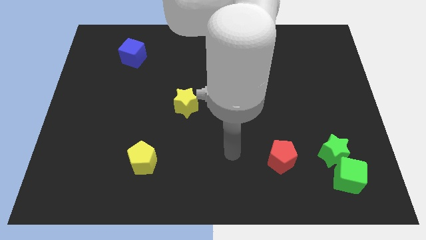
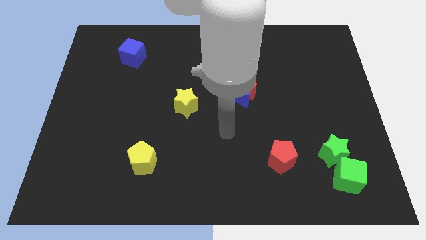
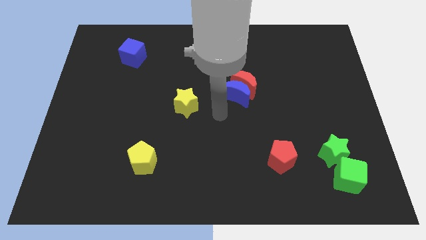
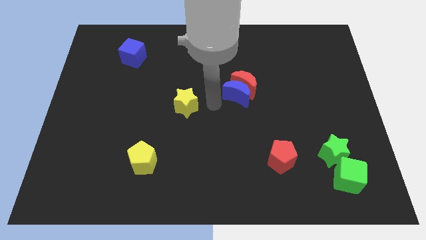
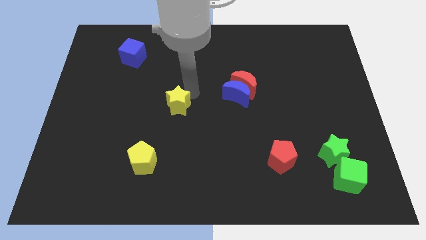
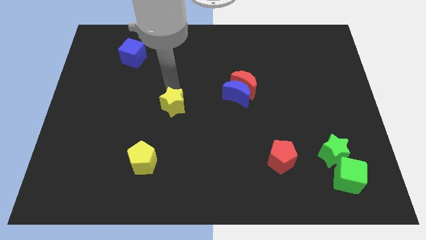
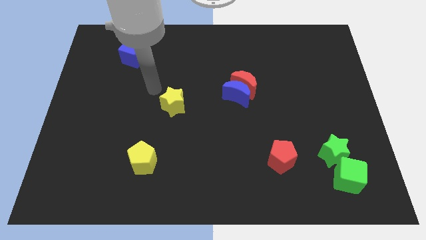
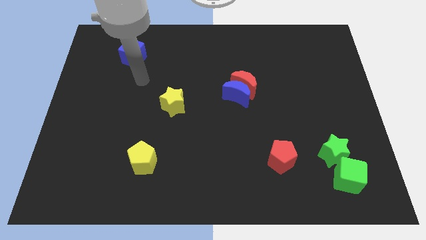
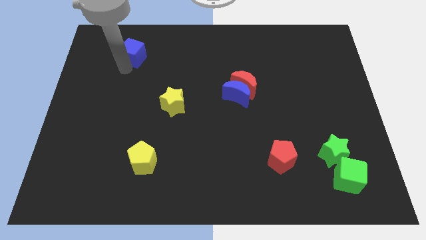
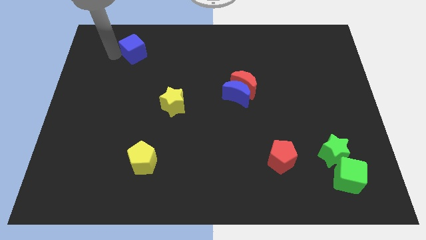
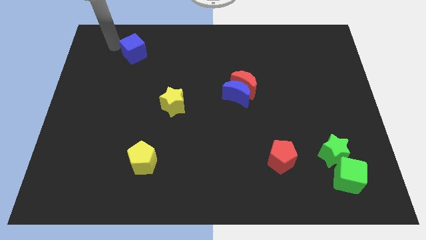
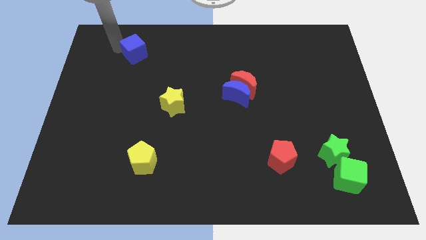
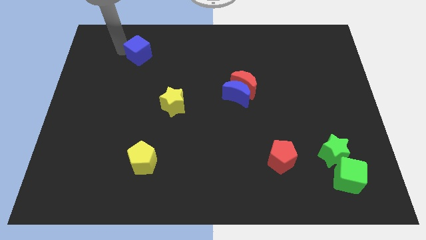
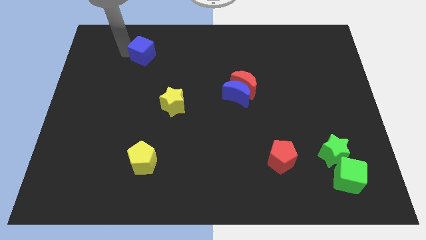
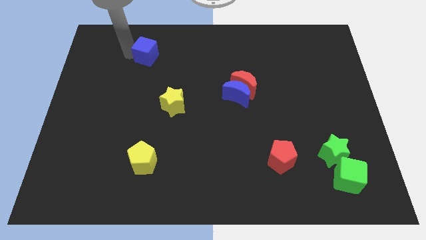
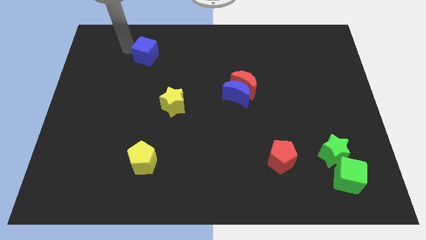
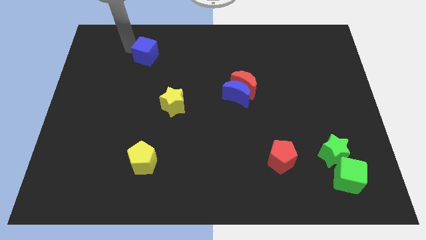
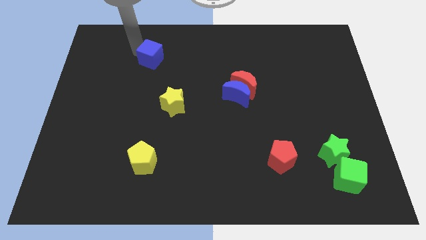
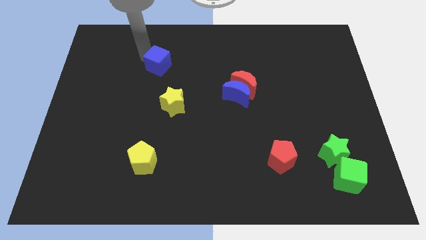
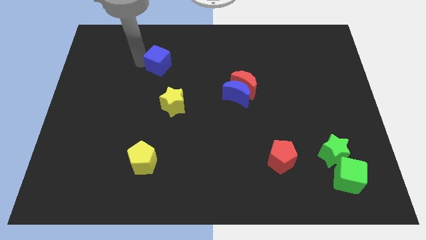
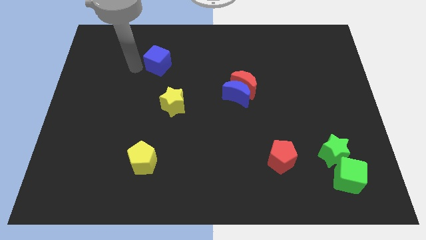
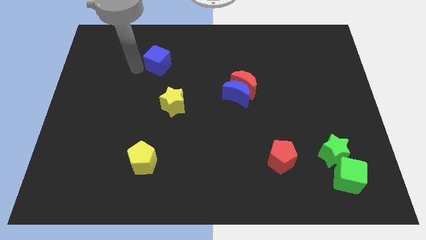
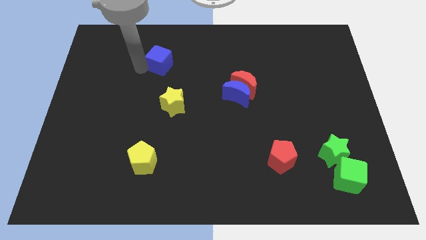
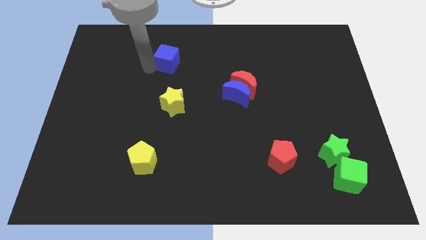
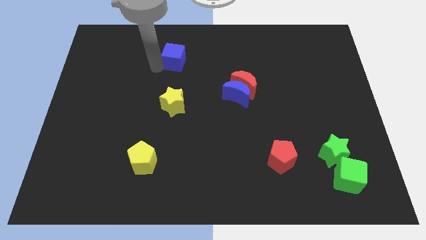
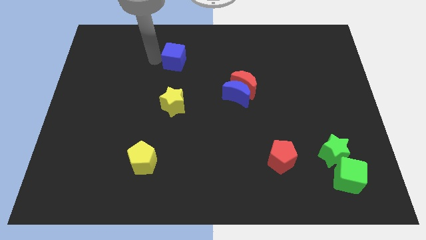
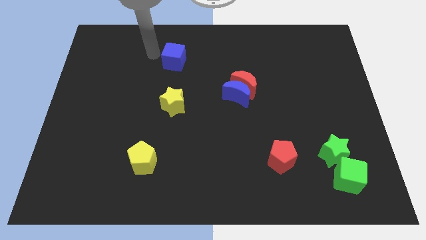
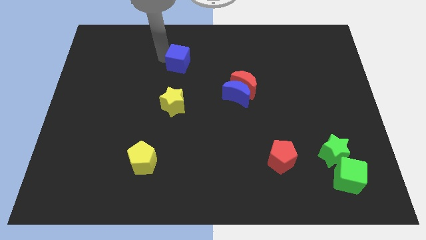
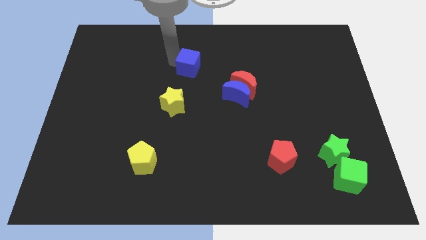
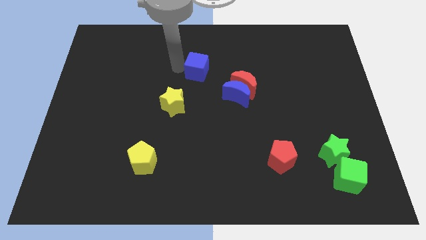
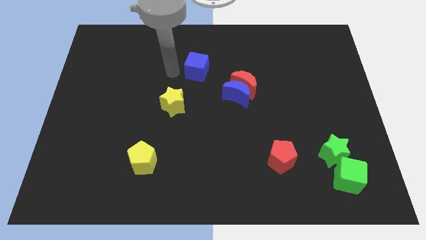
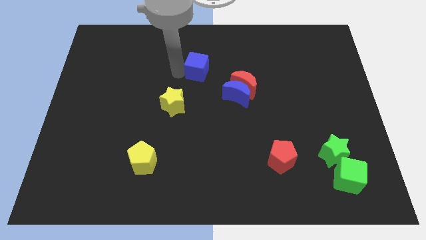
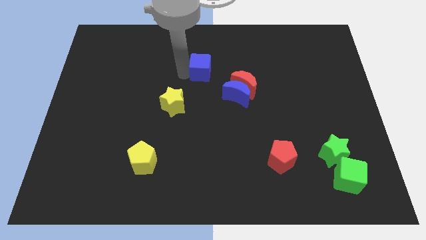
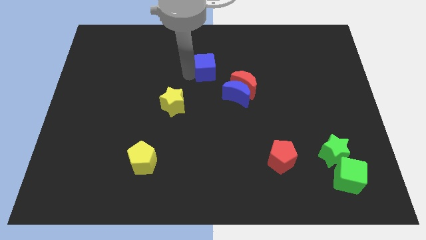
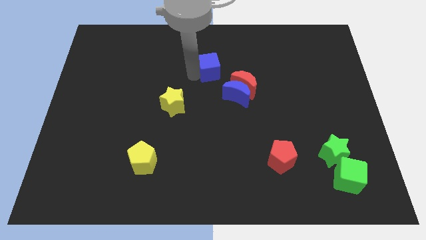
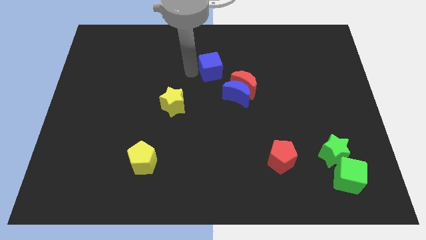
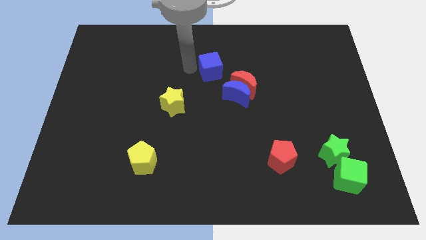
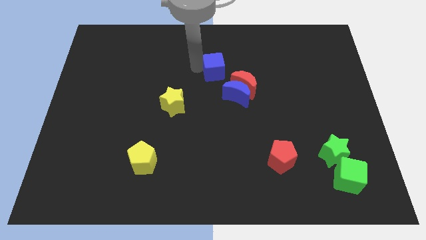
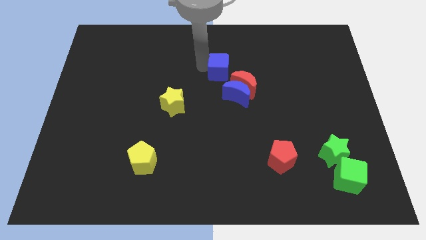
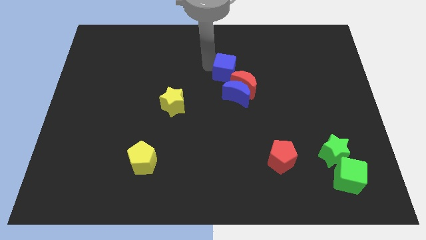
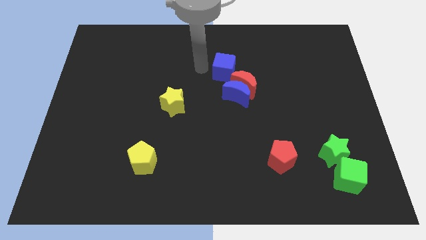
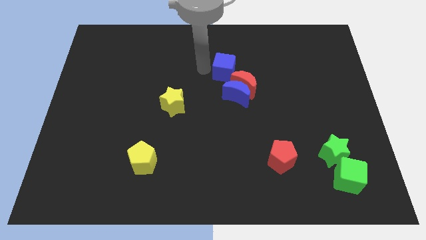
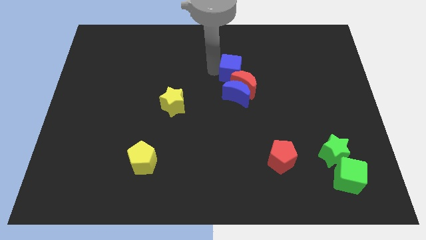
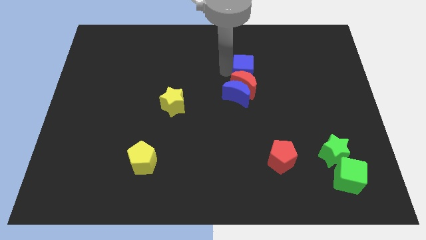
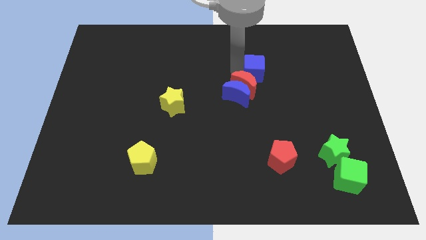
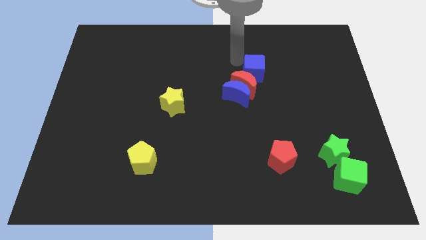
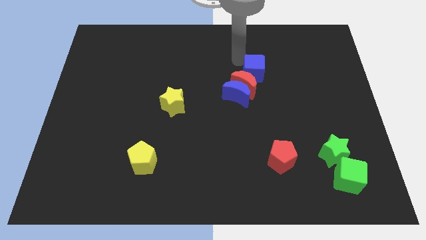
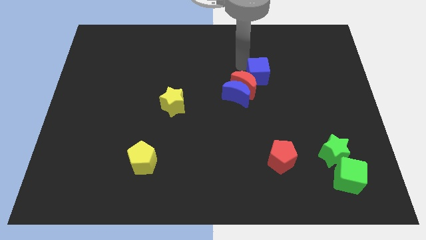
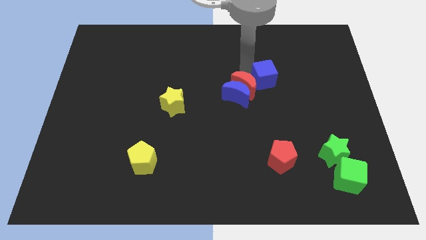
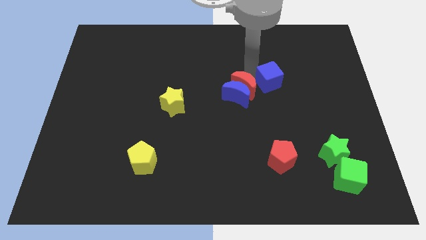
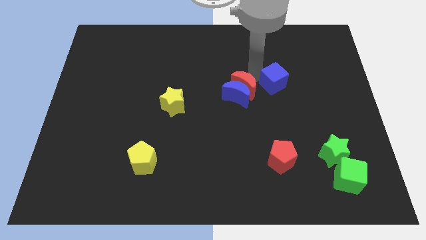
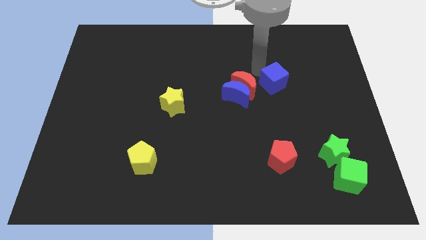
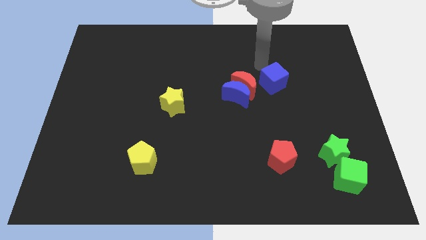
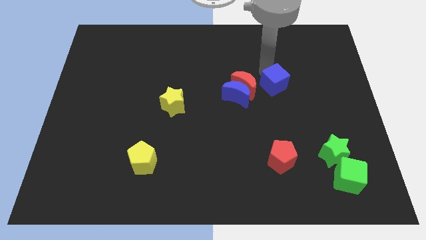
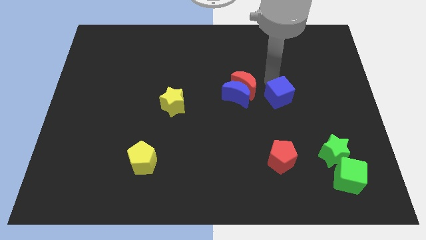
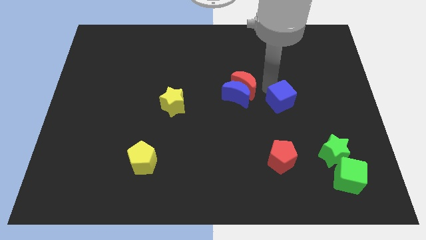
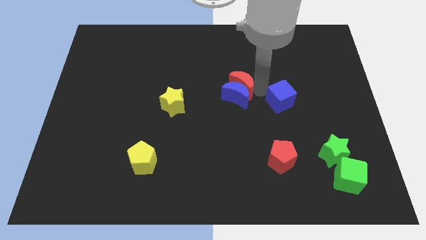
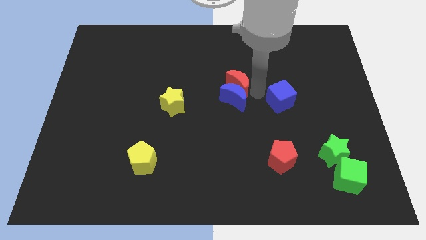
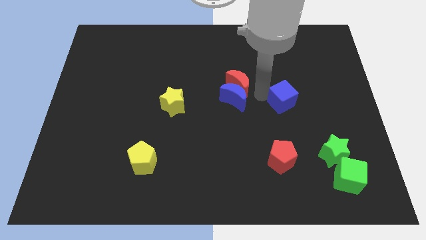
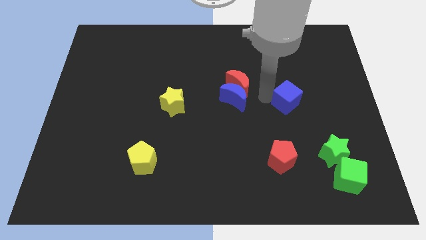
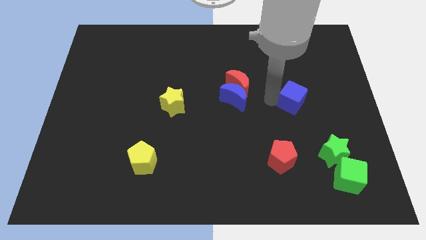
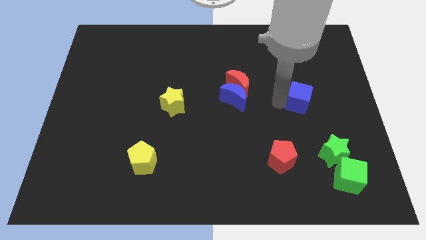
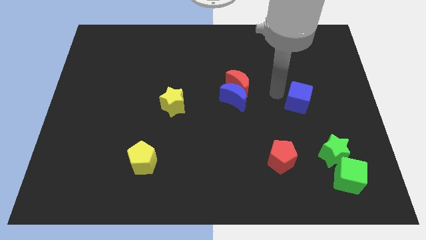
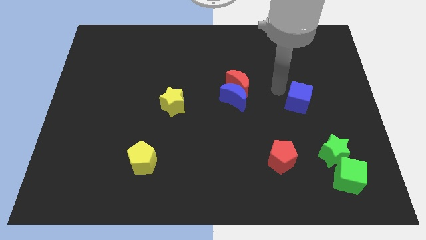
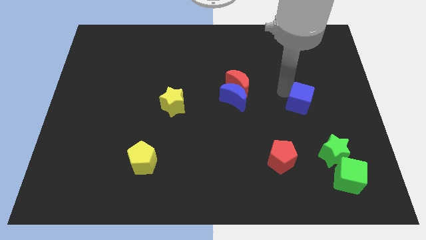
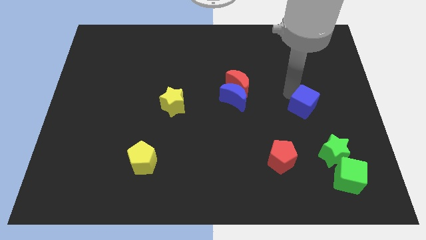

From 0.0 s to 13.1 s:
slide the blue cube to the top of the green star

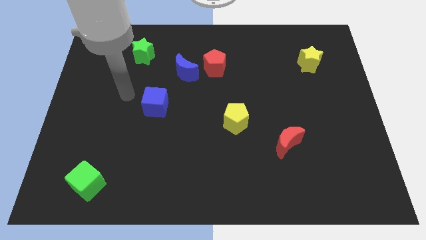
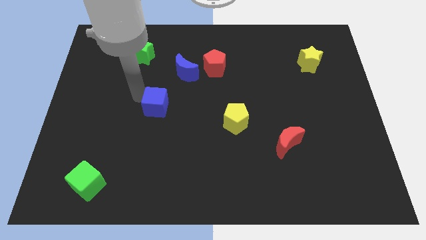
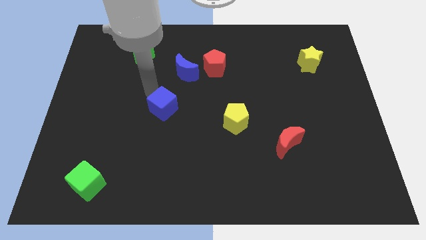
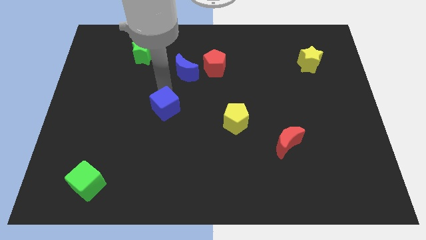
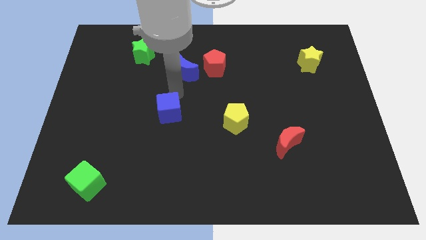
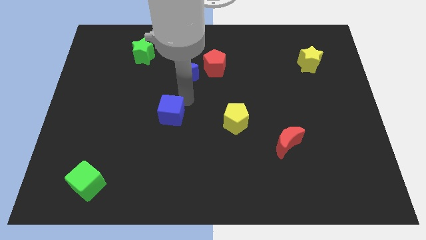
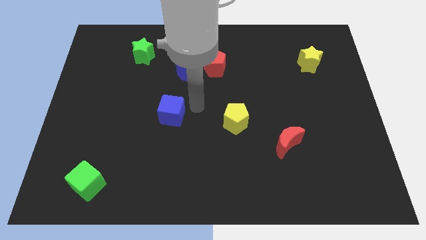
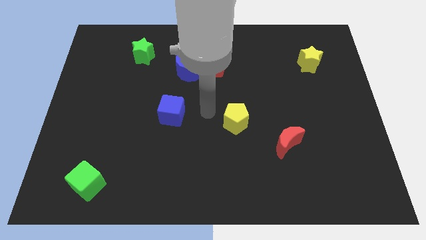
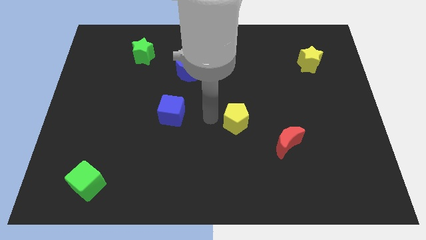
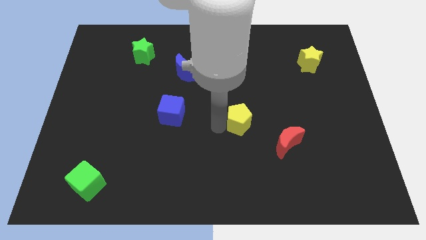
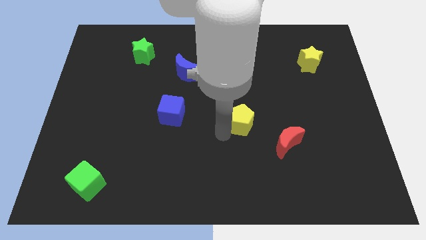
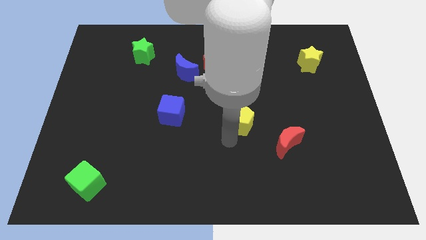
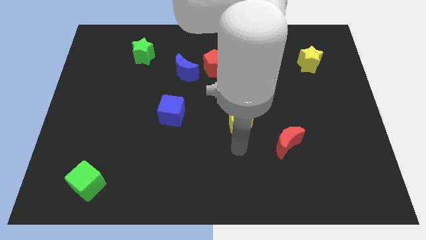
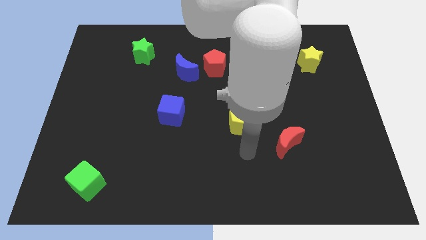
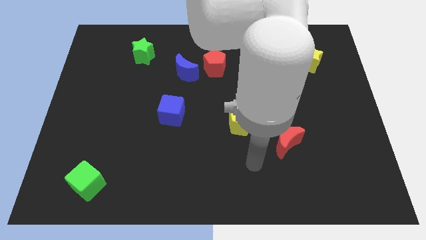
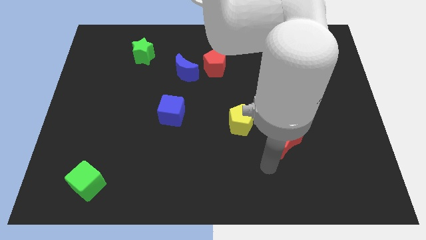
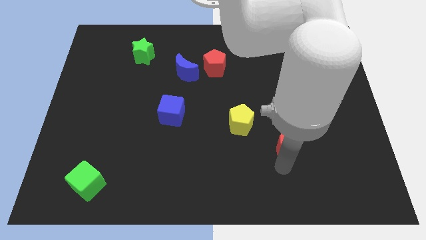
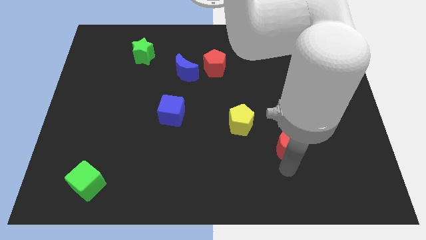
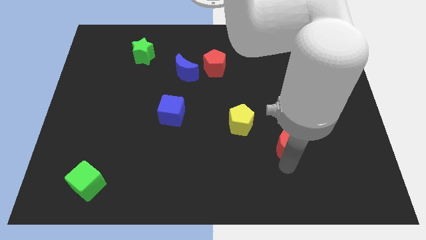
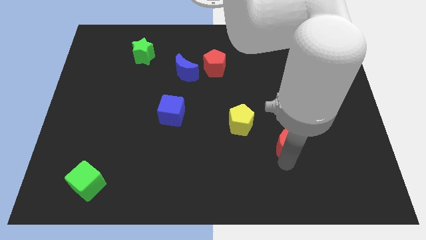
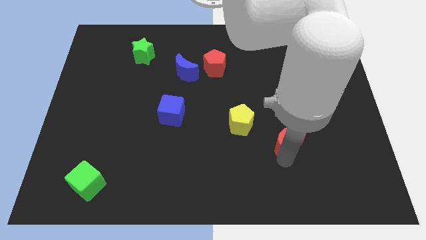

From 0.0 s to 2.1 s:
move the red moon to the right of the yellow pentagon
